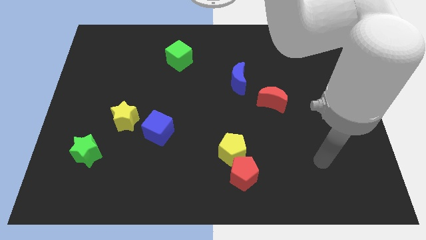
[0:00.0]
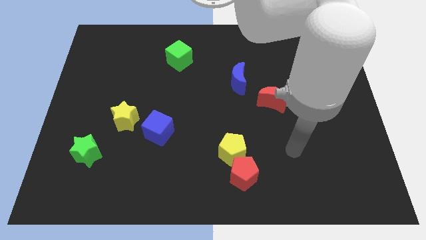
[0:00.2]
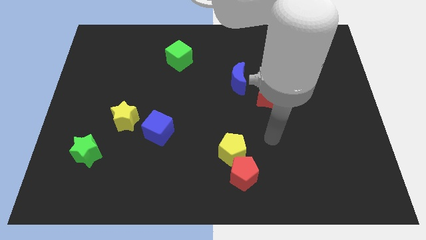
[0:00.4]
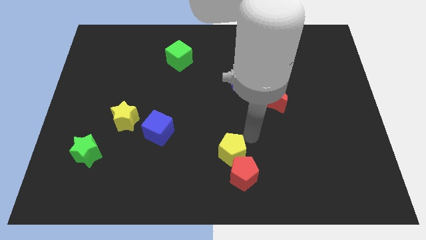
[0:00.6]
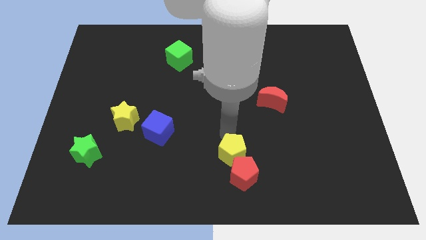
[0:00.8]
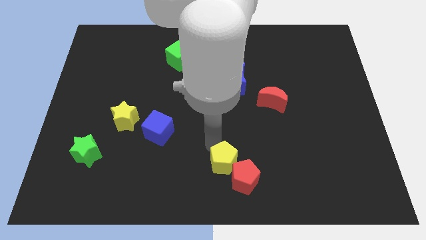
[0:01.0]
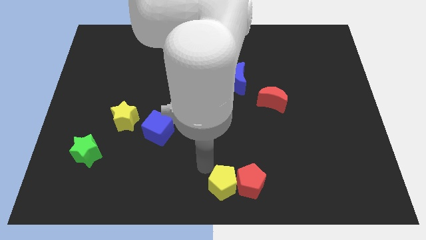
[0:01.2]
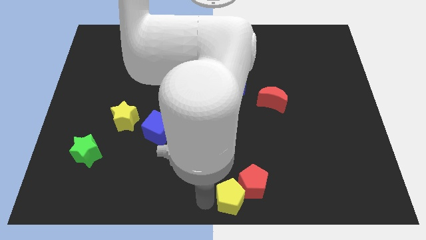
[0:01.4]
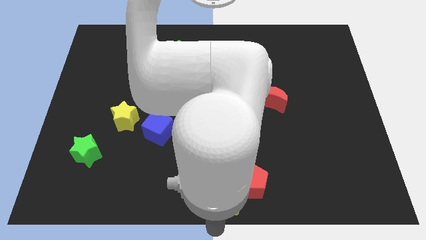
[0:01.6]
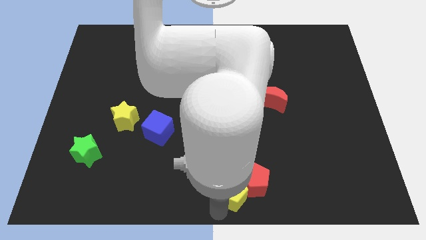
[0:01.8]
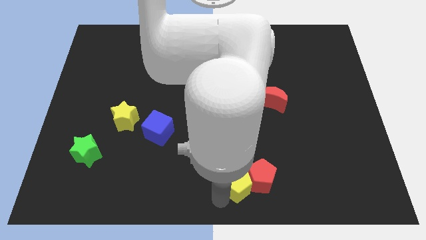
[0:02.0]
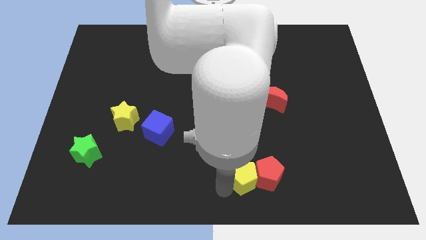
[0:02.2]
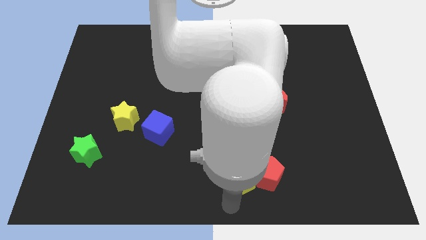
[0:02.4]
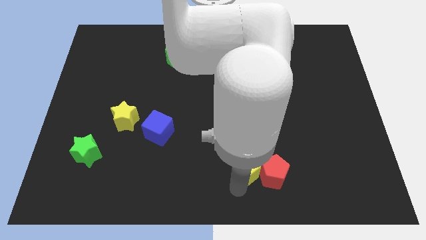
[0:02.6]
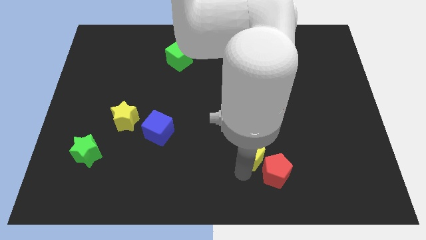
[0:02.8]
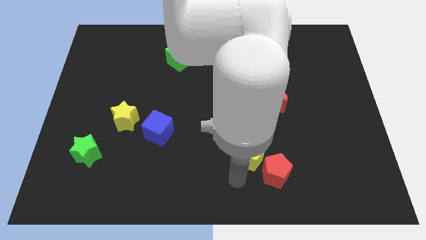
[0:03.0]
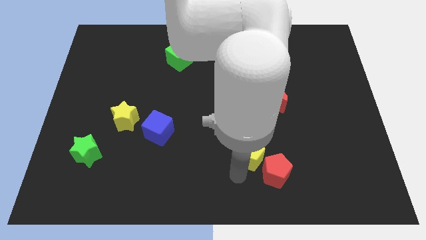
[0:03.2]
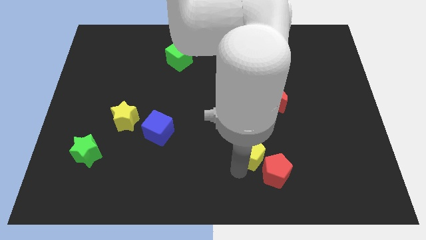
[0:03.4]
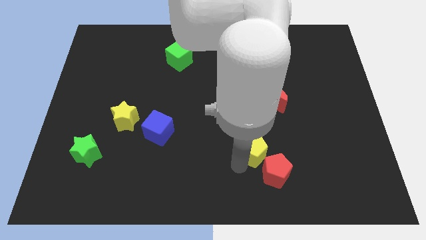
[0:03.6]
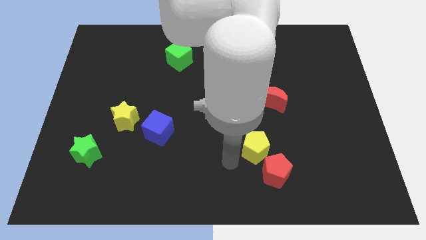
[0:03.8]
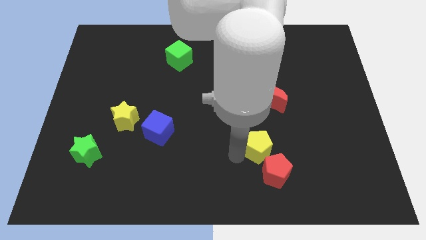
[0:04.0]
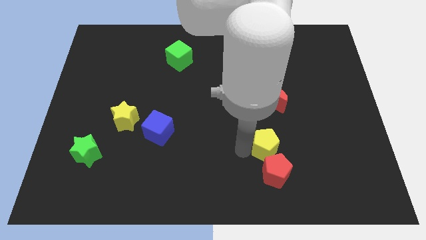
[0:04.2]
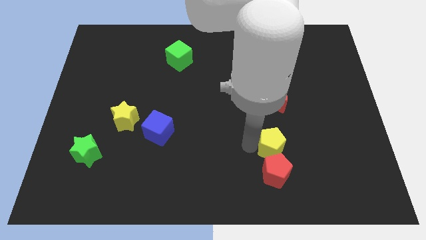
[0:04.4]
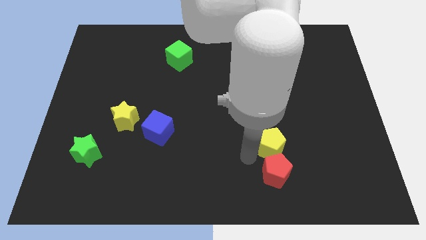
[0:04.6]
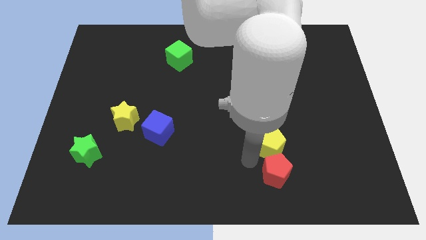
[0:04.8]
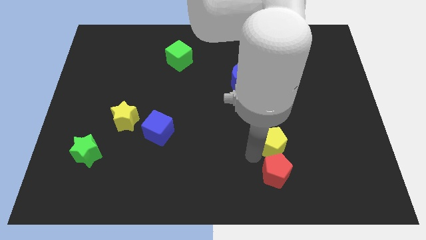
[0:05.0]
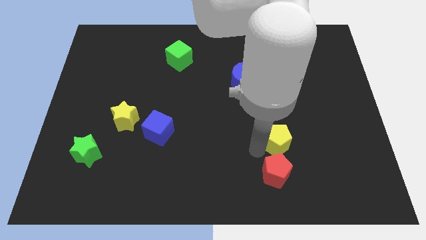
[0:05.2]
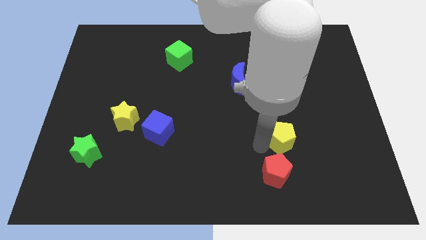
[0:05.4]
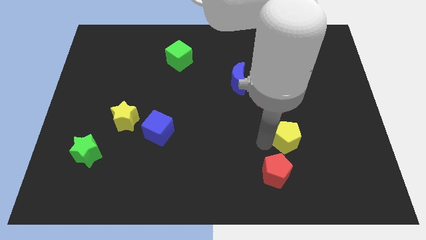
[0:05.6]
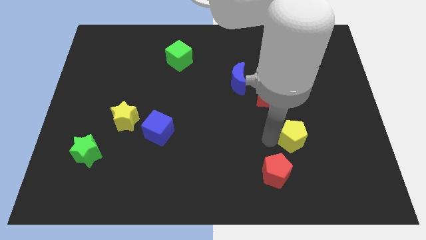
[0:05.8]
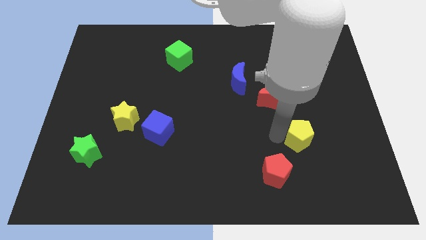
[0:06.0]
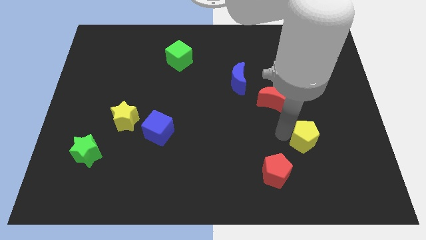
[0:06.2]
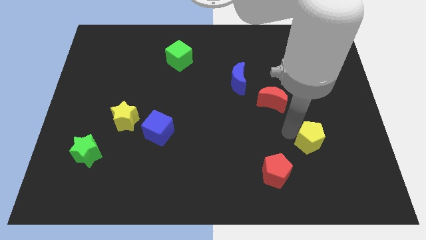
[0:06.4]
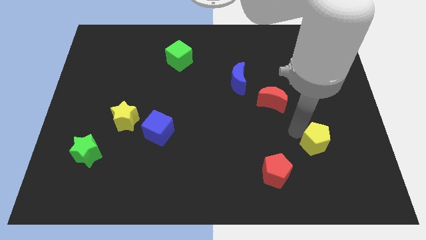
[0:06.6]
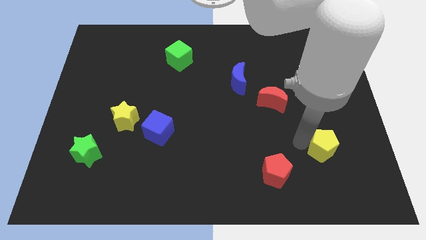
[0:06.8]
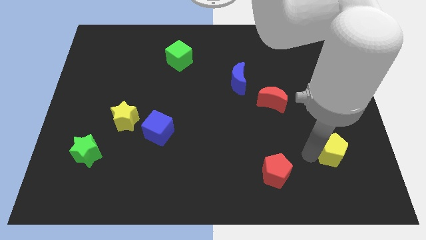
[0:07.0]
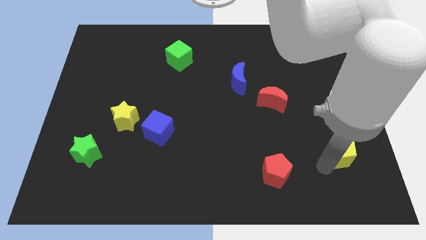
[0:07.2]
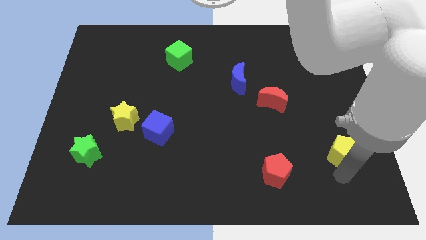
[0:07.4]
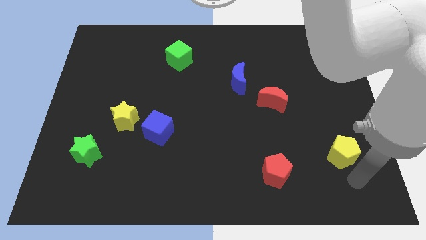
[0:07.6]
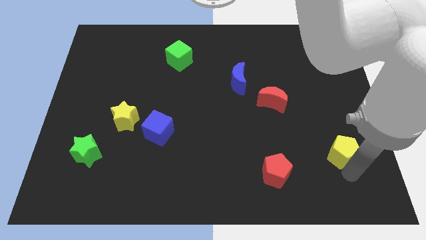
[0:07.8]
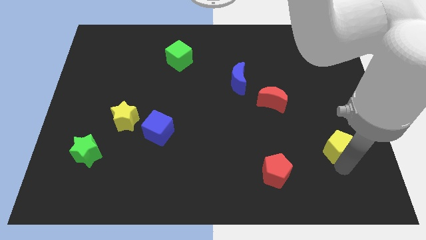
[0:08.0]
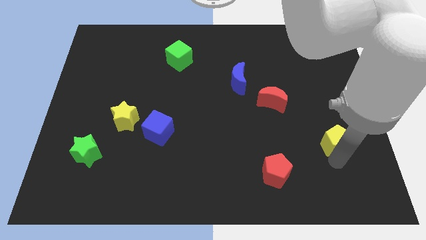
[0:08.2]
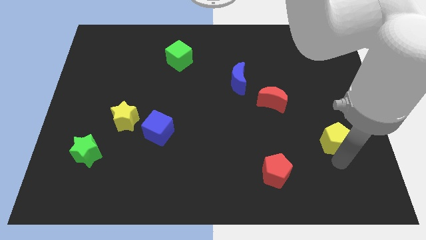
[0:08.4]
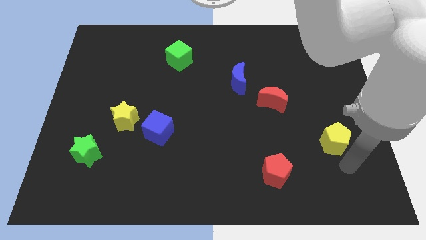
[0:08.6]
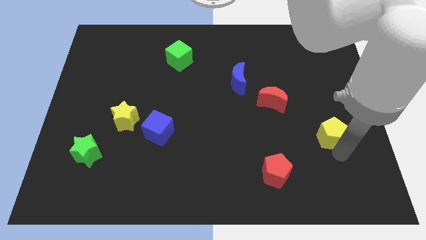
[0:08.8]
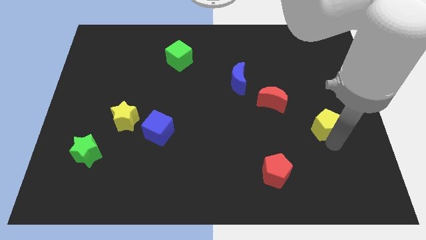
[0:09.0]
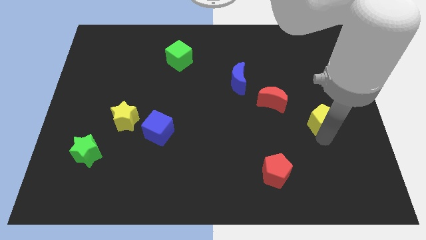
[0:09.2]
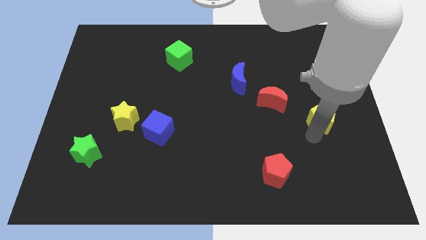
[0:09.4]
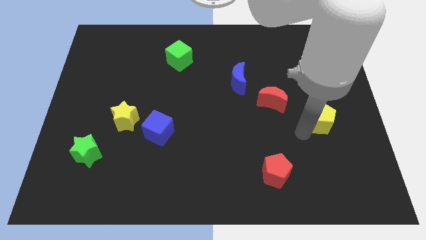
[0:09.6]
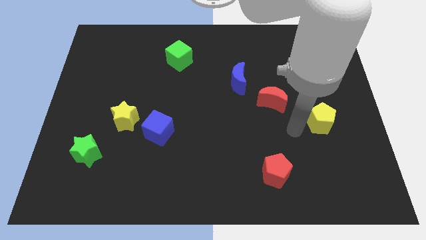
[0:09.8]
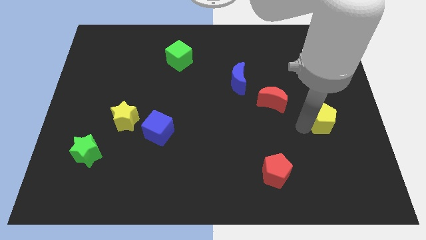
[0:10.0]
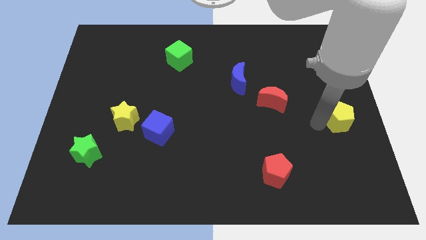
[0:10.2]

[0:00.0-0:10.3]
move the yellow pentagon to the center right

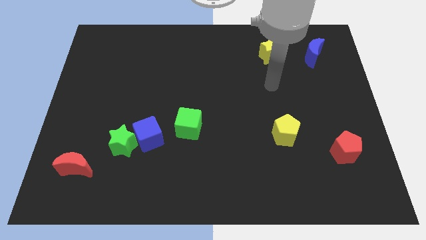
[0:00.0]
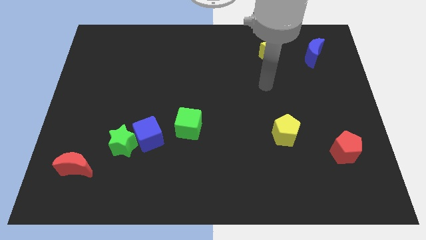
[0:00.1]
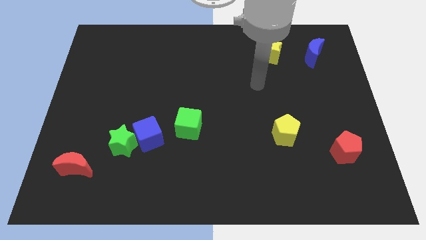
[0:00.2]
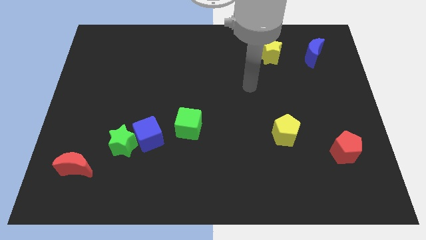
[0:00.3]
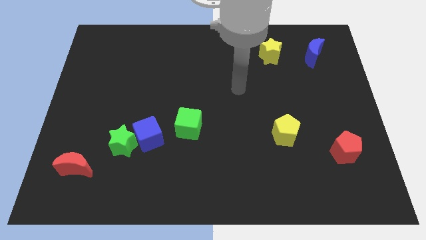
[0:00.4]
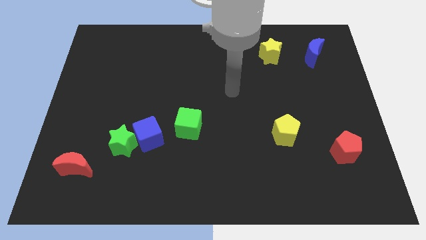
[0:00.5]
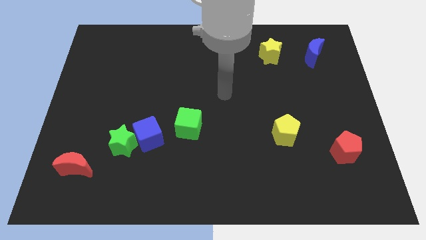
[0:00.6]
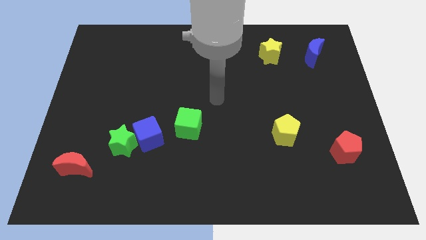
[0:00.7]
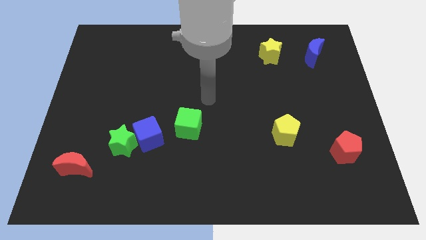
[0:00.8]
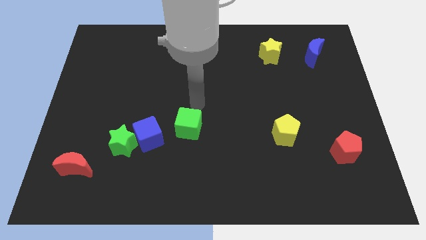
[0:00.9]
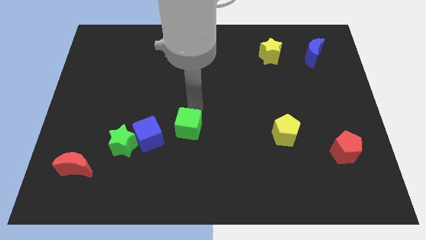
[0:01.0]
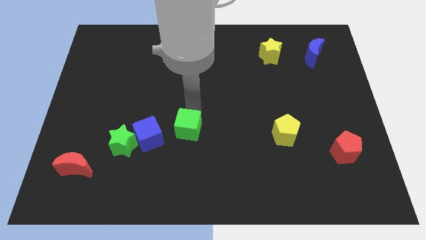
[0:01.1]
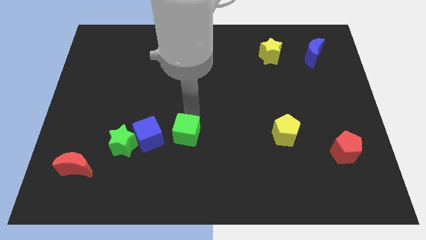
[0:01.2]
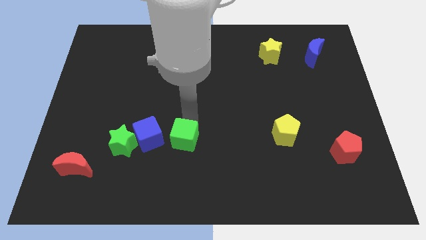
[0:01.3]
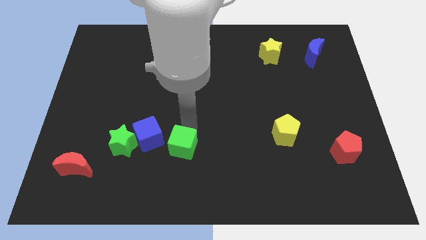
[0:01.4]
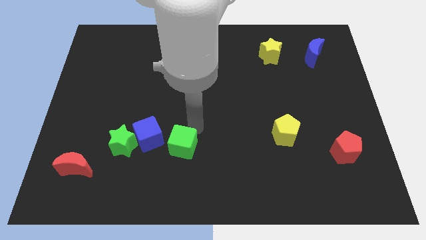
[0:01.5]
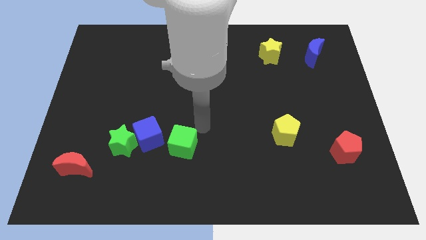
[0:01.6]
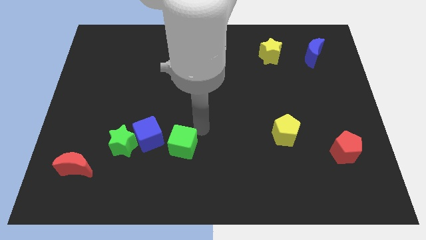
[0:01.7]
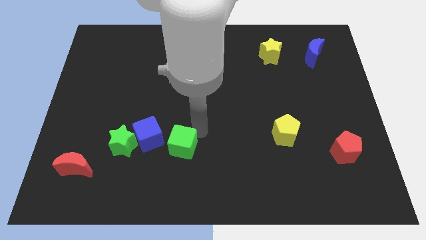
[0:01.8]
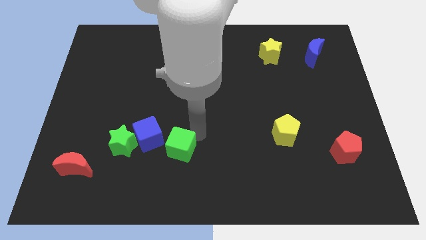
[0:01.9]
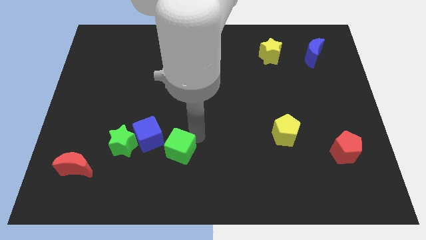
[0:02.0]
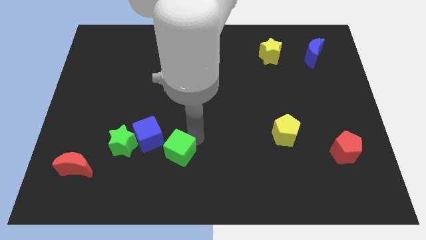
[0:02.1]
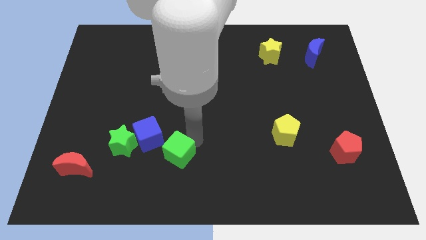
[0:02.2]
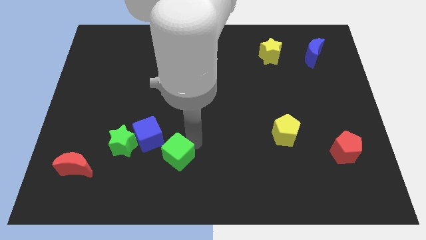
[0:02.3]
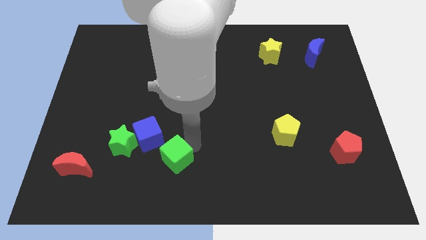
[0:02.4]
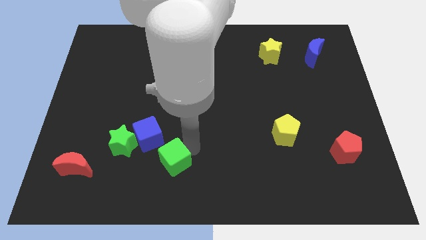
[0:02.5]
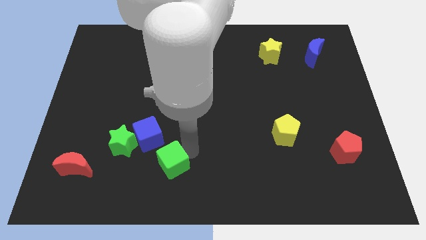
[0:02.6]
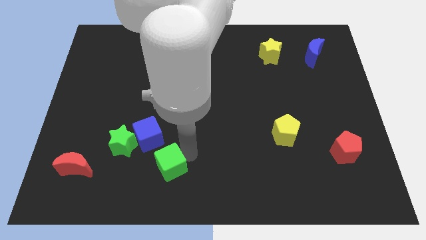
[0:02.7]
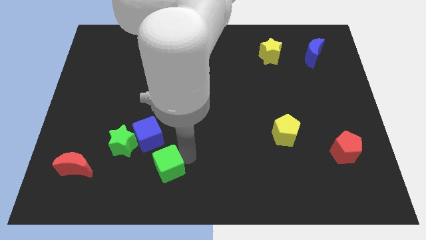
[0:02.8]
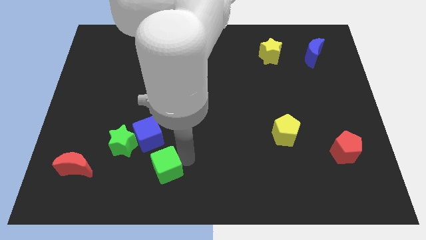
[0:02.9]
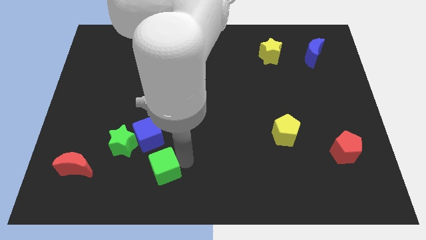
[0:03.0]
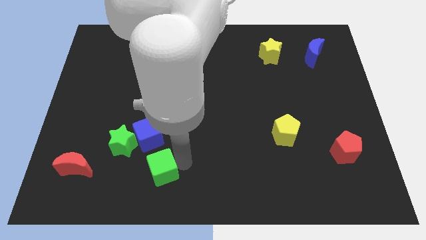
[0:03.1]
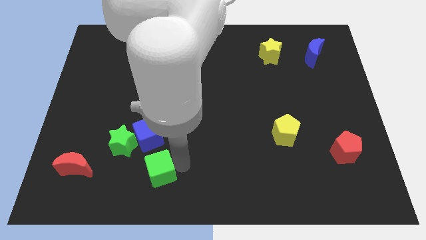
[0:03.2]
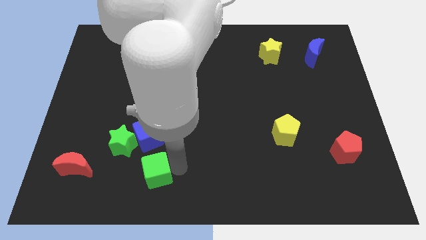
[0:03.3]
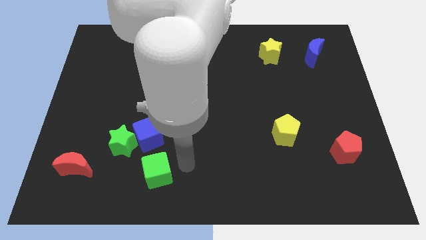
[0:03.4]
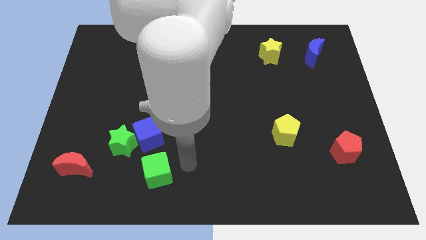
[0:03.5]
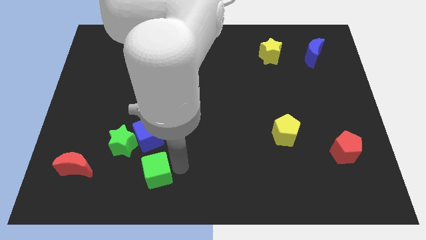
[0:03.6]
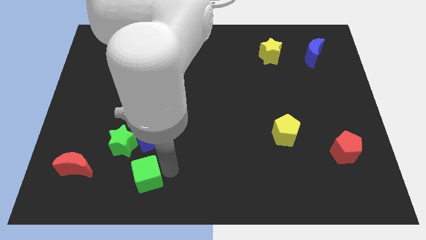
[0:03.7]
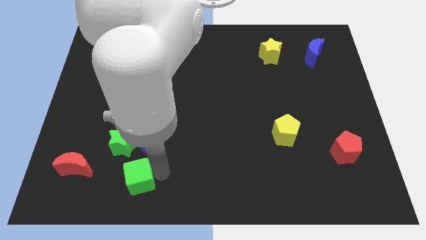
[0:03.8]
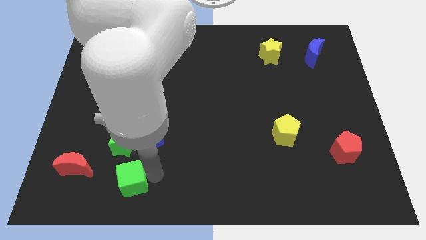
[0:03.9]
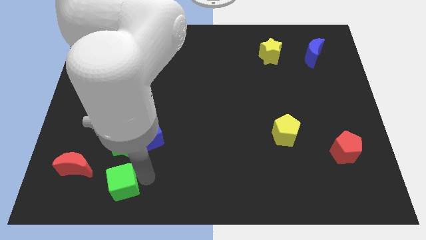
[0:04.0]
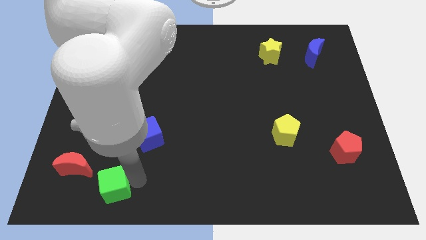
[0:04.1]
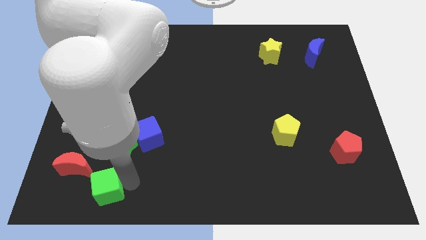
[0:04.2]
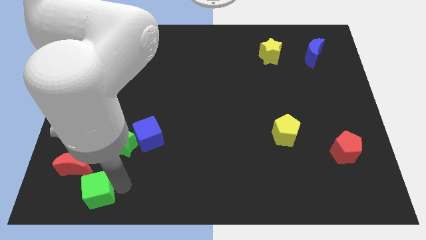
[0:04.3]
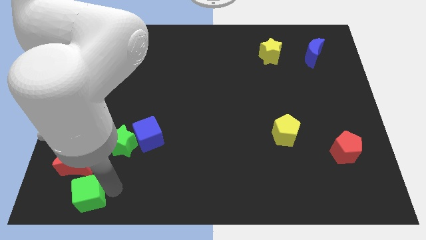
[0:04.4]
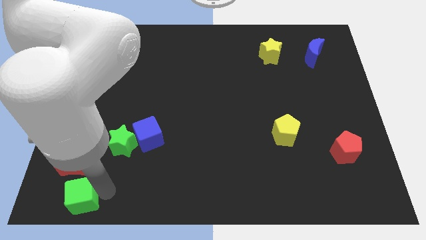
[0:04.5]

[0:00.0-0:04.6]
move the green cube to the bottom left
